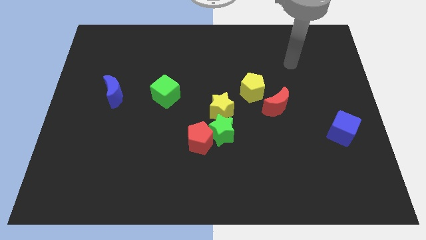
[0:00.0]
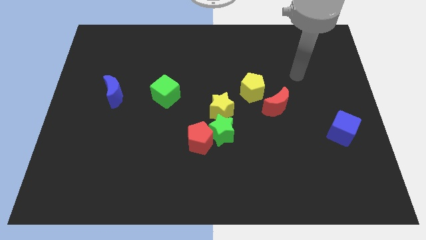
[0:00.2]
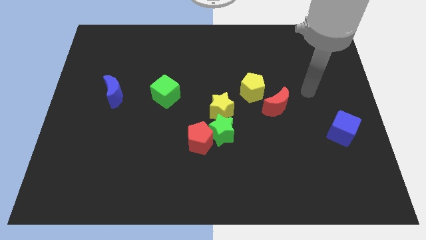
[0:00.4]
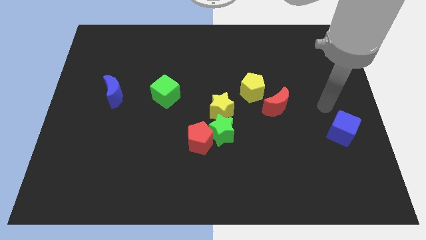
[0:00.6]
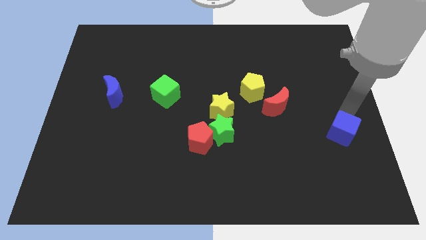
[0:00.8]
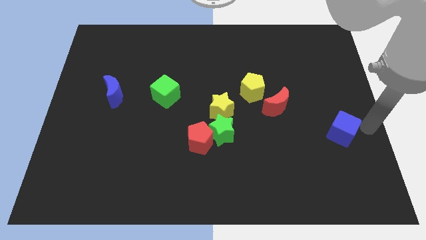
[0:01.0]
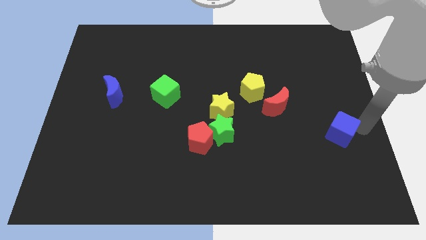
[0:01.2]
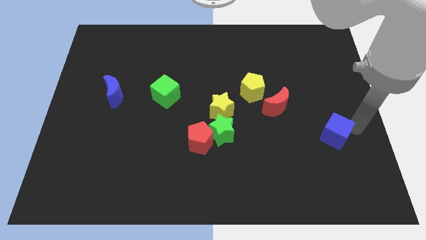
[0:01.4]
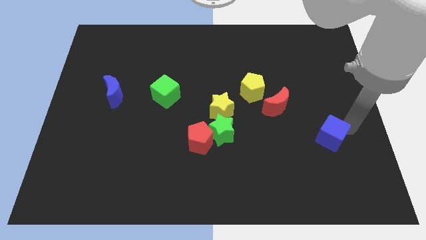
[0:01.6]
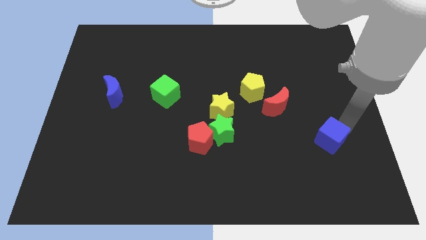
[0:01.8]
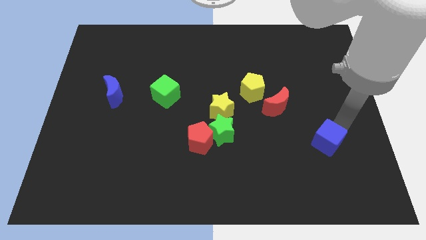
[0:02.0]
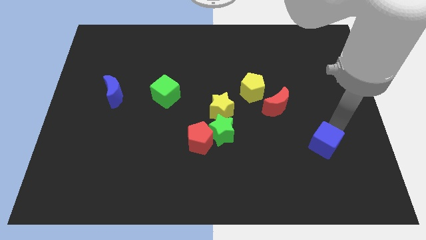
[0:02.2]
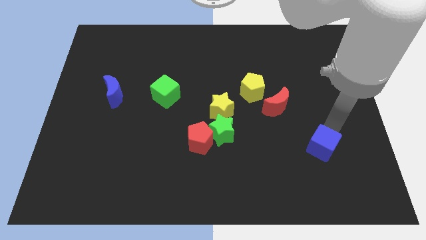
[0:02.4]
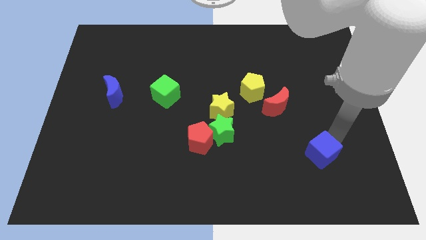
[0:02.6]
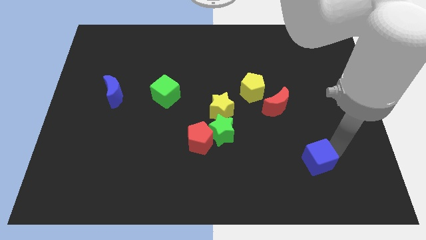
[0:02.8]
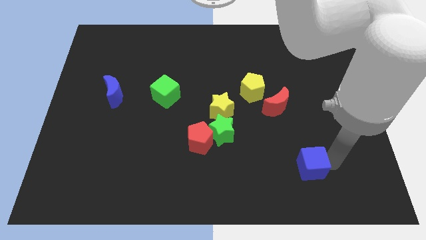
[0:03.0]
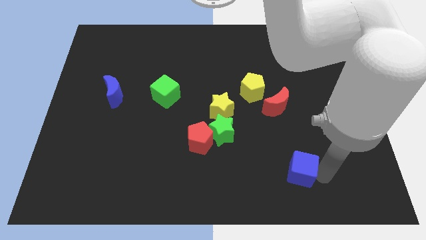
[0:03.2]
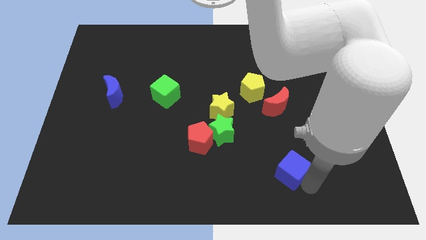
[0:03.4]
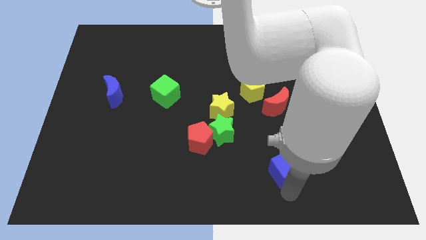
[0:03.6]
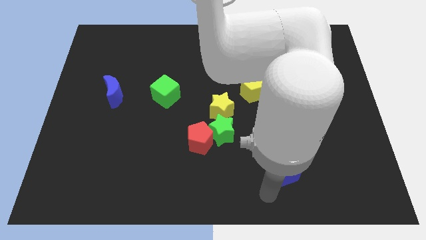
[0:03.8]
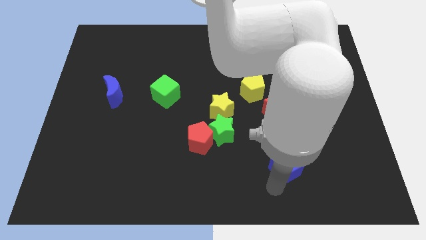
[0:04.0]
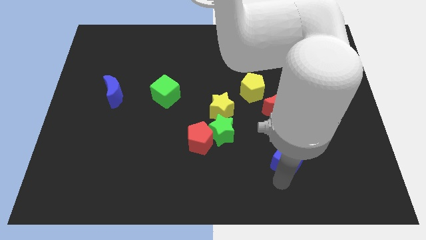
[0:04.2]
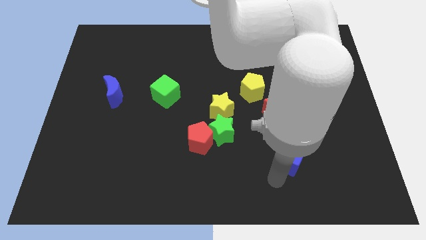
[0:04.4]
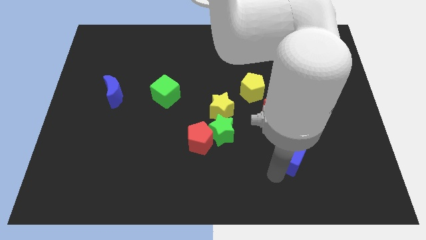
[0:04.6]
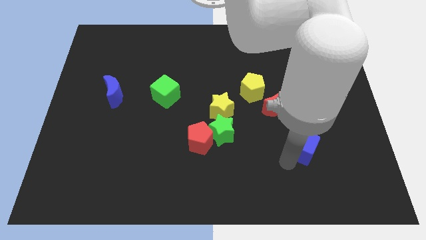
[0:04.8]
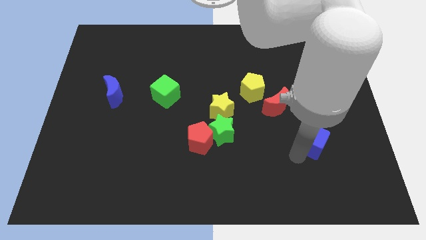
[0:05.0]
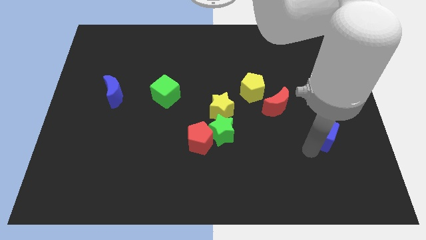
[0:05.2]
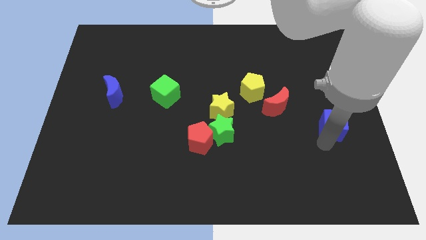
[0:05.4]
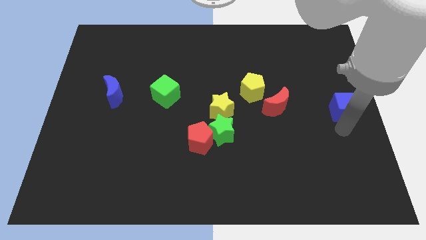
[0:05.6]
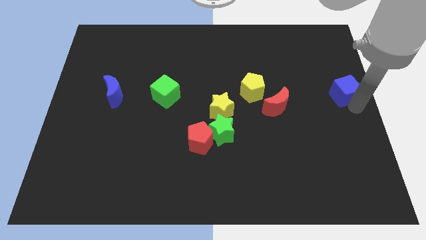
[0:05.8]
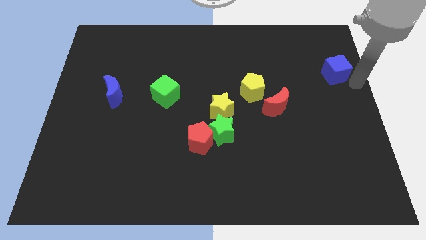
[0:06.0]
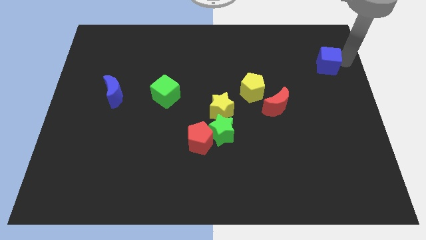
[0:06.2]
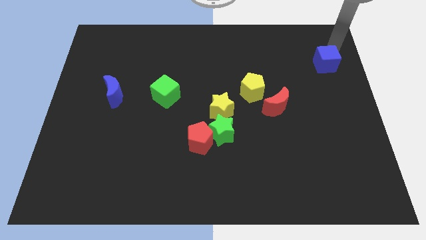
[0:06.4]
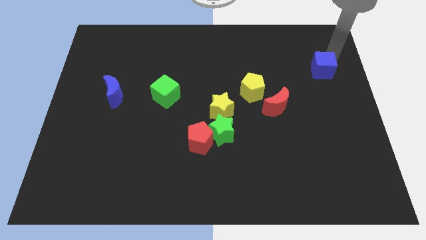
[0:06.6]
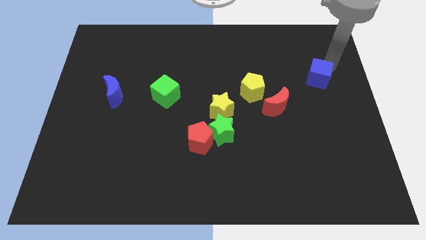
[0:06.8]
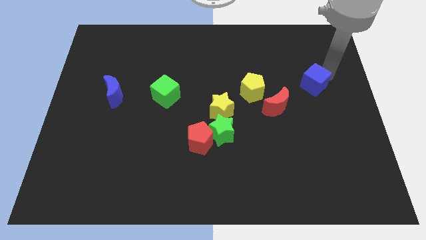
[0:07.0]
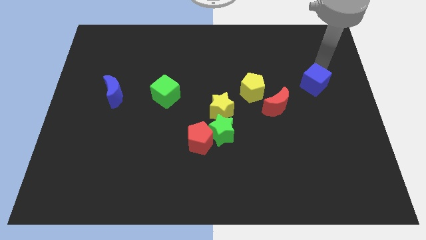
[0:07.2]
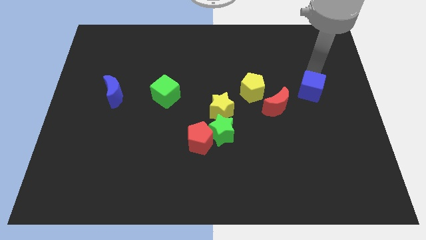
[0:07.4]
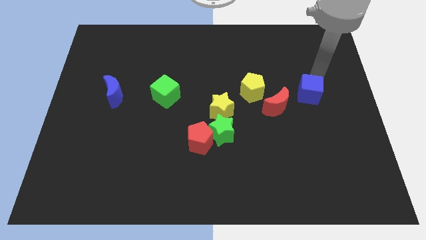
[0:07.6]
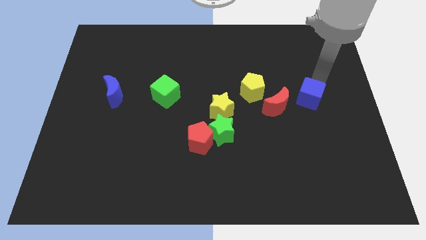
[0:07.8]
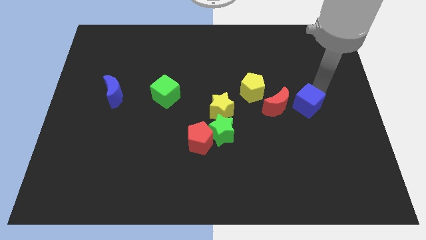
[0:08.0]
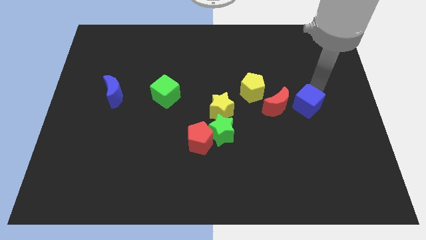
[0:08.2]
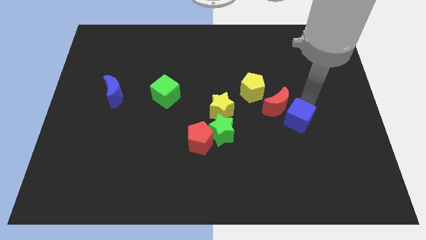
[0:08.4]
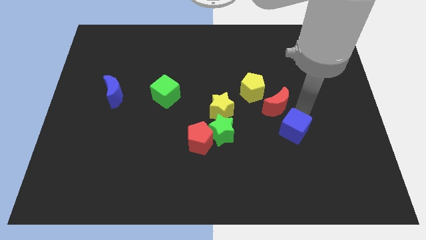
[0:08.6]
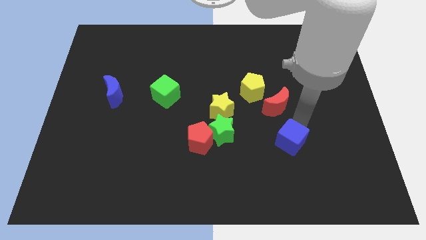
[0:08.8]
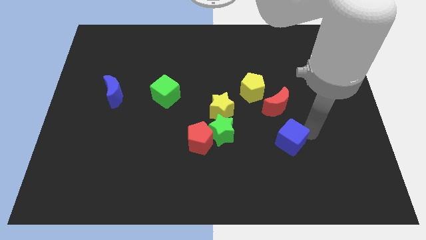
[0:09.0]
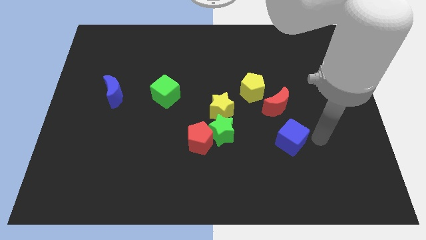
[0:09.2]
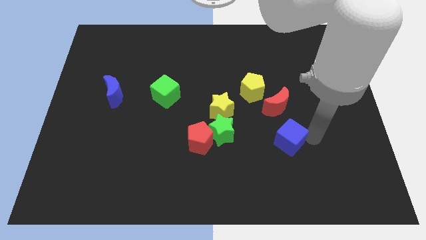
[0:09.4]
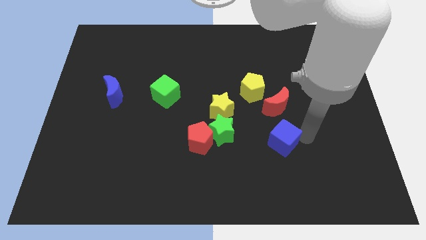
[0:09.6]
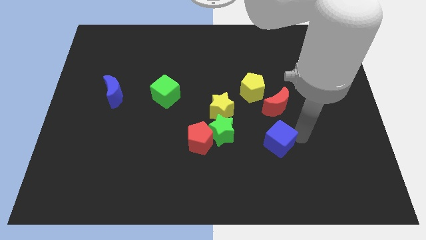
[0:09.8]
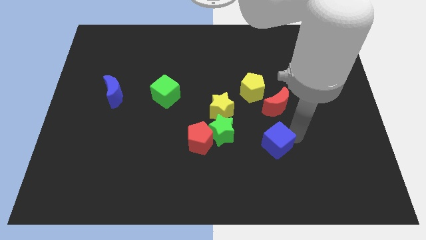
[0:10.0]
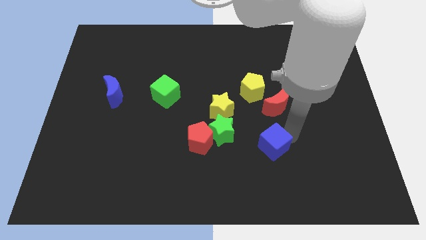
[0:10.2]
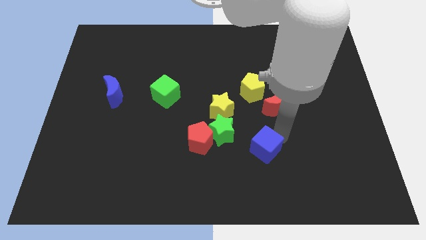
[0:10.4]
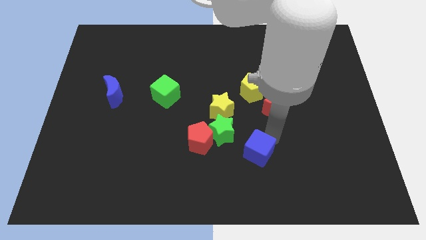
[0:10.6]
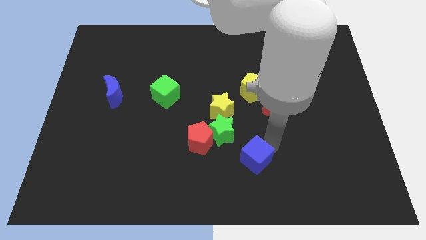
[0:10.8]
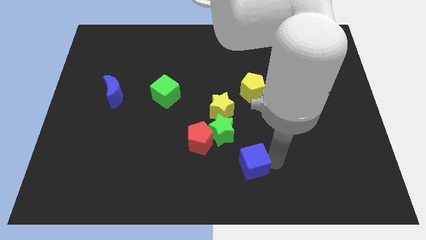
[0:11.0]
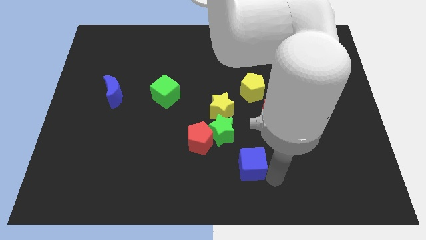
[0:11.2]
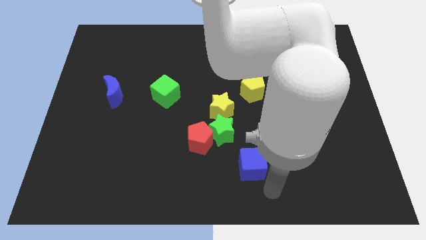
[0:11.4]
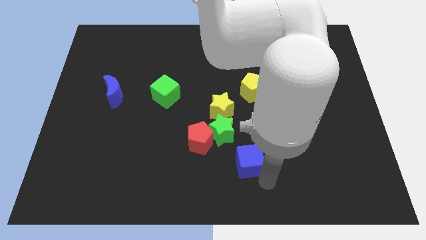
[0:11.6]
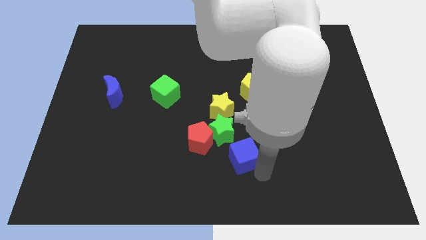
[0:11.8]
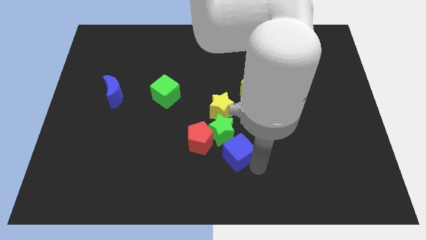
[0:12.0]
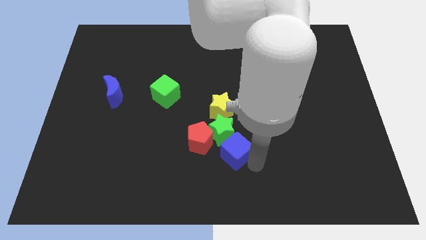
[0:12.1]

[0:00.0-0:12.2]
move the blue cube close to the green star

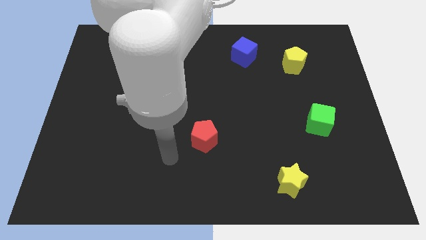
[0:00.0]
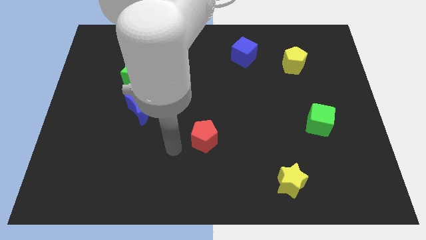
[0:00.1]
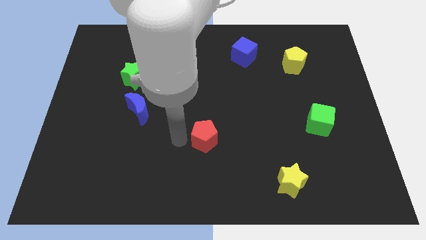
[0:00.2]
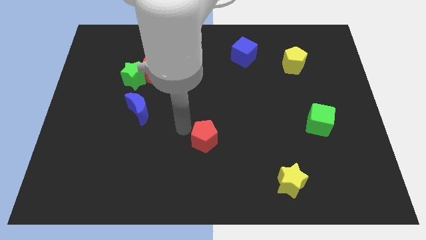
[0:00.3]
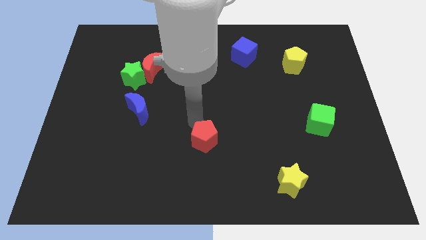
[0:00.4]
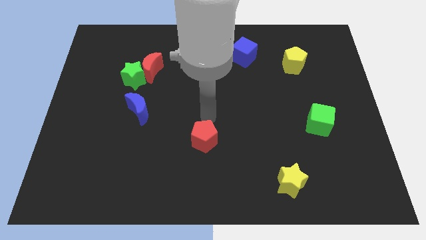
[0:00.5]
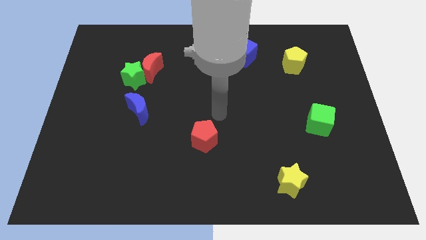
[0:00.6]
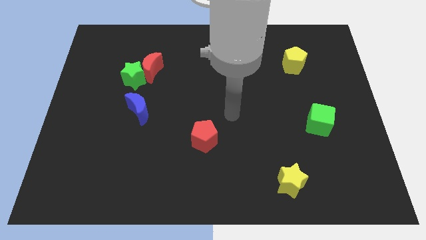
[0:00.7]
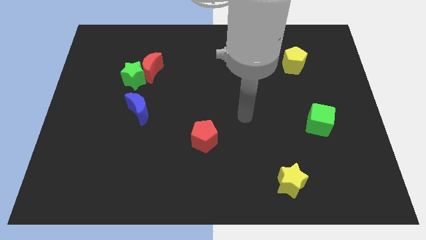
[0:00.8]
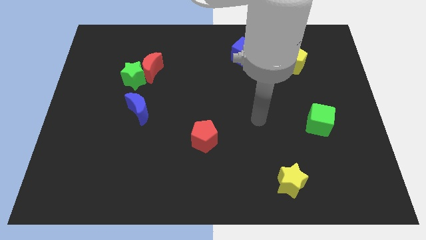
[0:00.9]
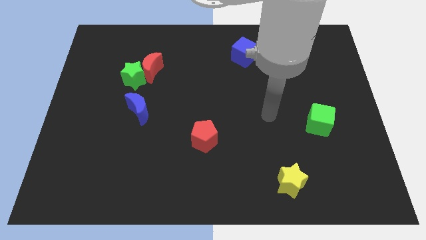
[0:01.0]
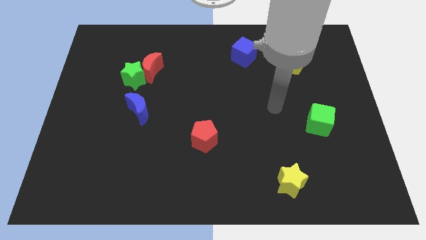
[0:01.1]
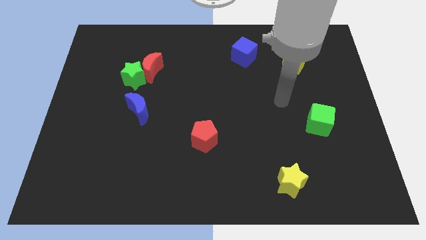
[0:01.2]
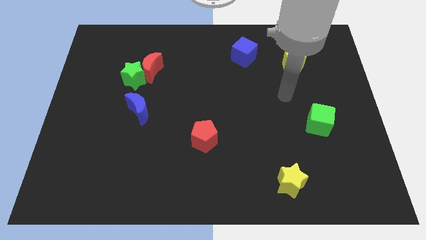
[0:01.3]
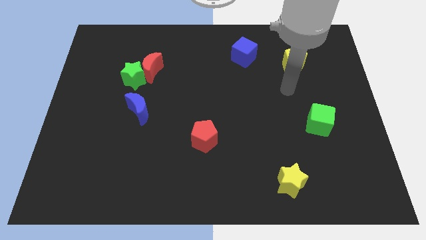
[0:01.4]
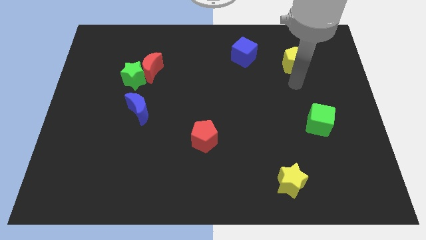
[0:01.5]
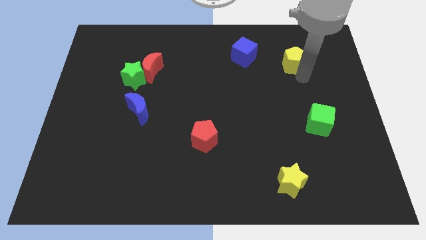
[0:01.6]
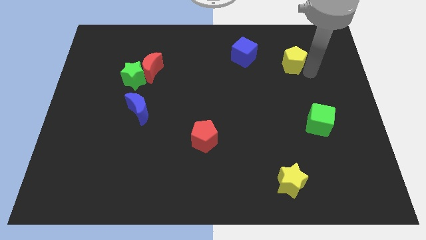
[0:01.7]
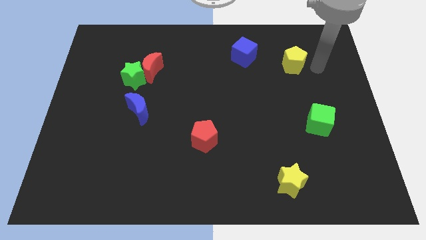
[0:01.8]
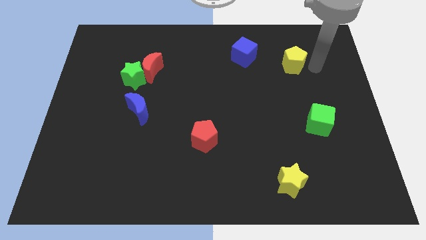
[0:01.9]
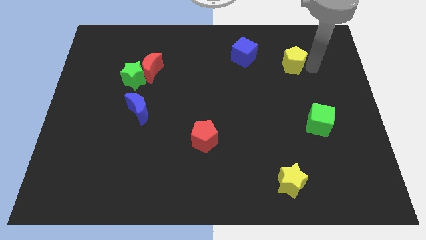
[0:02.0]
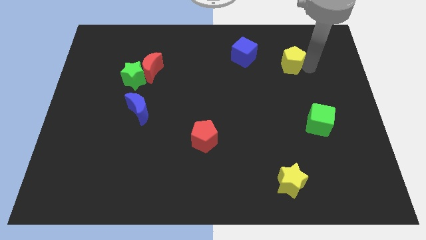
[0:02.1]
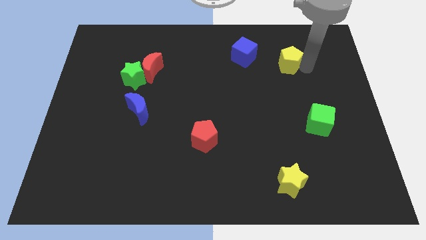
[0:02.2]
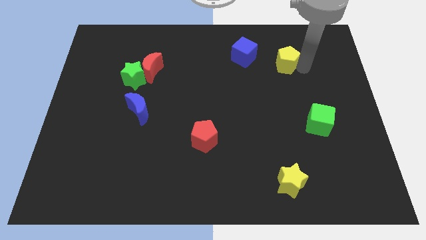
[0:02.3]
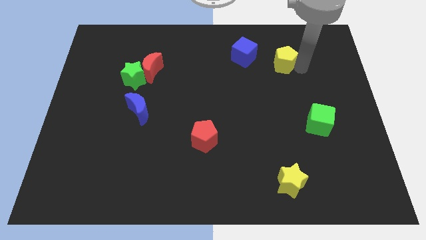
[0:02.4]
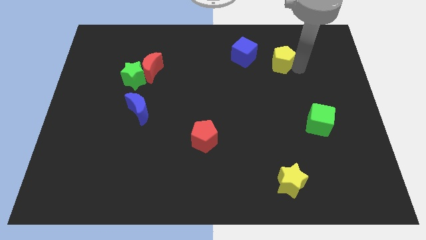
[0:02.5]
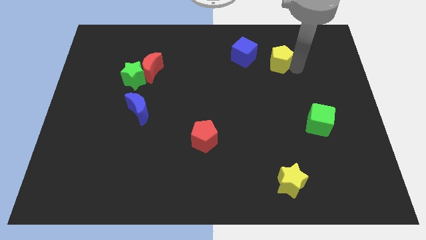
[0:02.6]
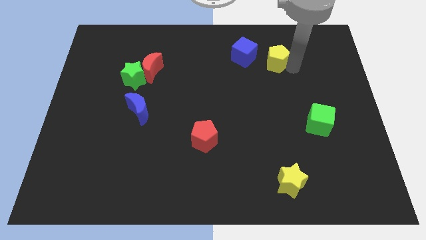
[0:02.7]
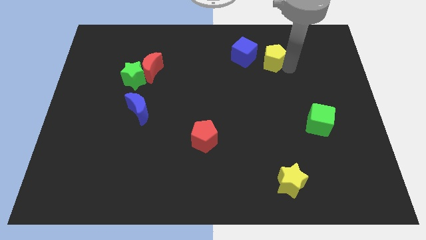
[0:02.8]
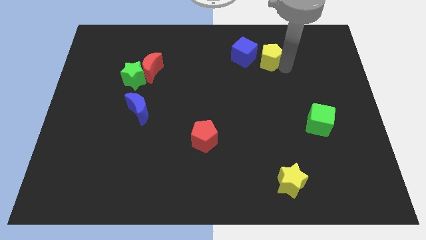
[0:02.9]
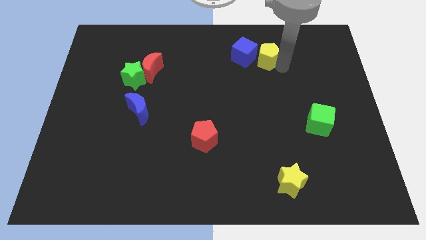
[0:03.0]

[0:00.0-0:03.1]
slide the yellow pentagon to the blue cube
